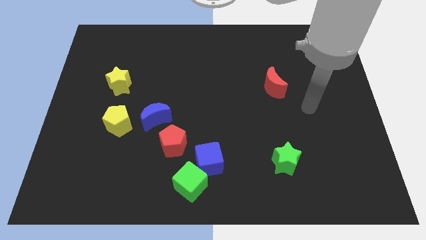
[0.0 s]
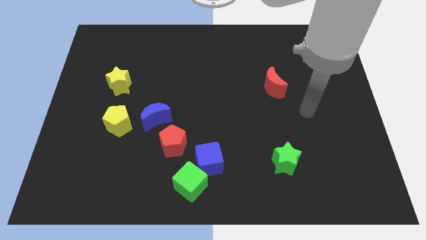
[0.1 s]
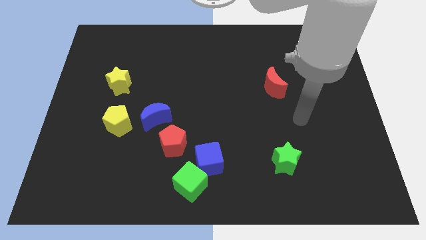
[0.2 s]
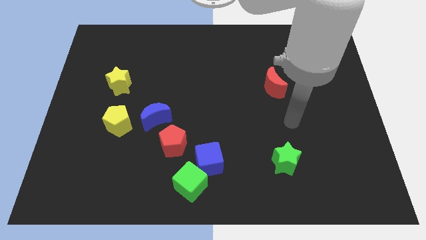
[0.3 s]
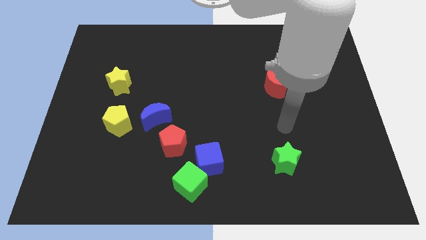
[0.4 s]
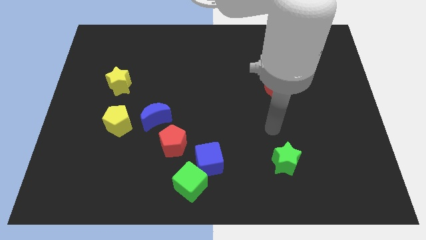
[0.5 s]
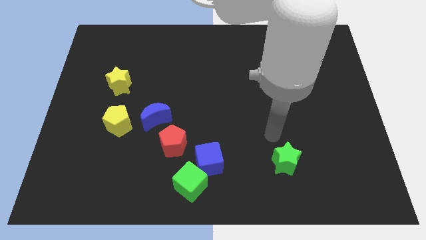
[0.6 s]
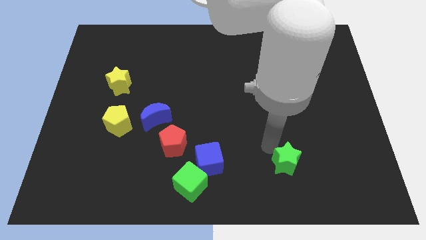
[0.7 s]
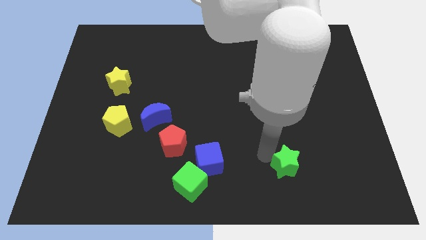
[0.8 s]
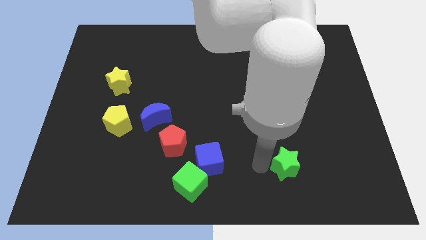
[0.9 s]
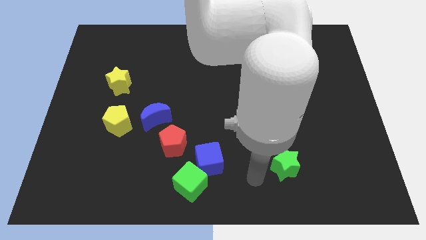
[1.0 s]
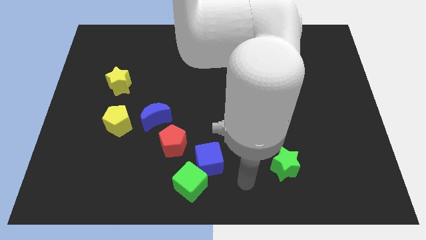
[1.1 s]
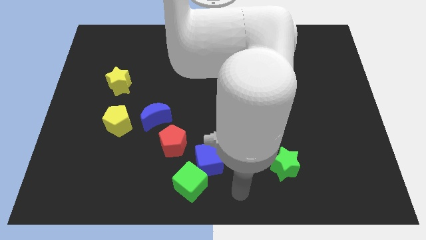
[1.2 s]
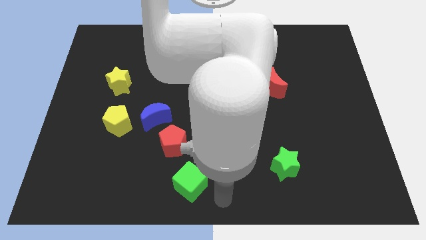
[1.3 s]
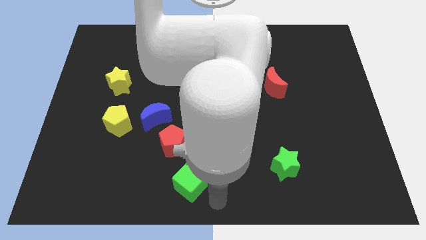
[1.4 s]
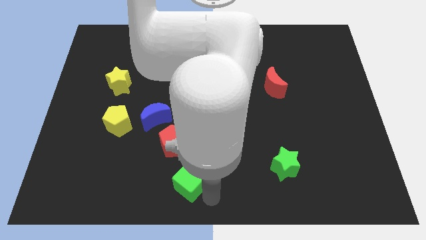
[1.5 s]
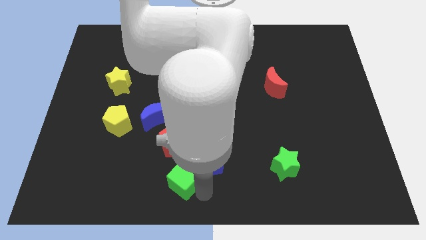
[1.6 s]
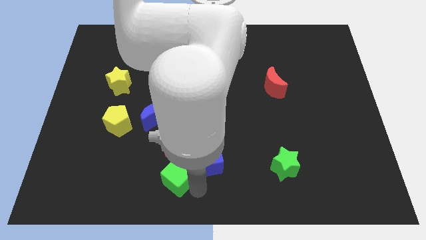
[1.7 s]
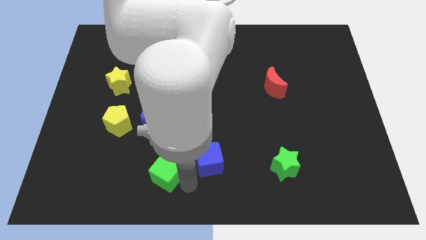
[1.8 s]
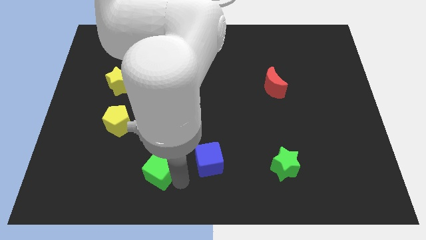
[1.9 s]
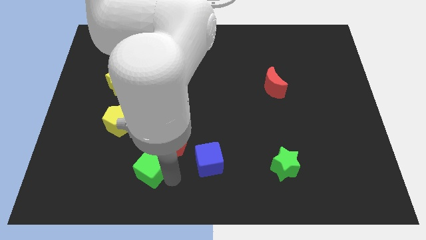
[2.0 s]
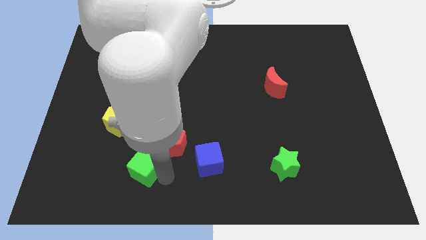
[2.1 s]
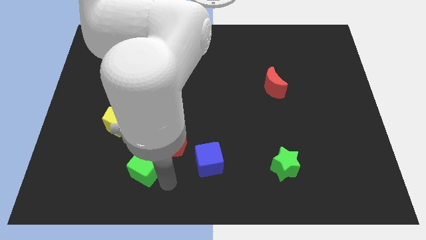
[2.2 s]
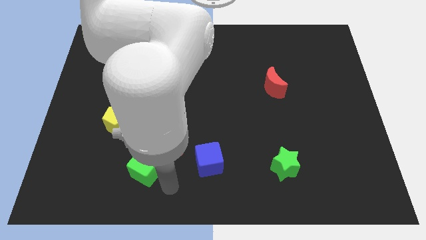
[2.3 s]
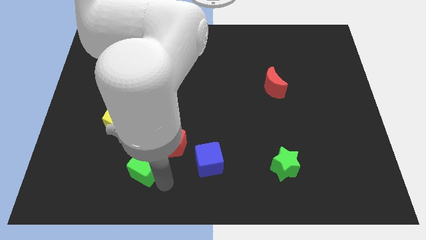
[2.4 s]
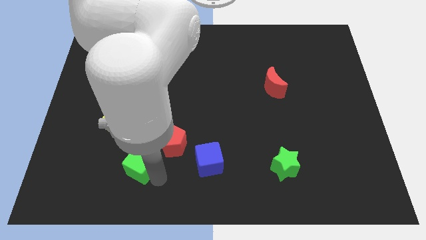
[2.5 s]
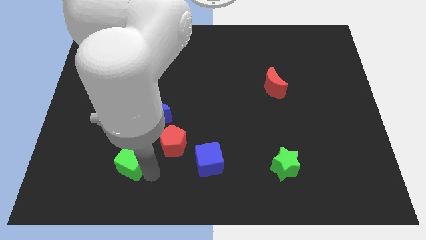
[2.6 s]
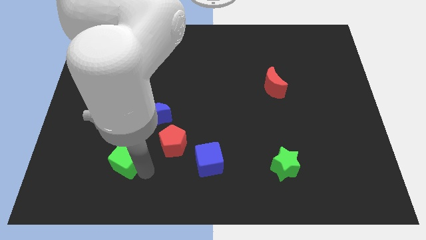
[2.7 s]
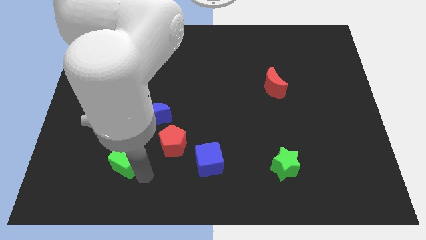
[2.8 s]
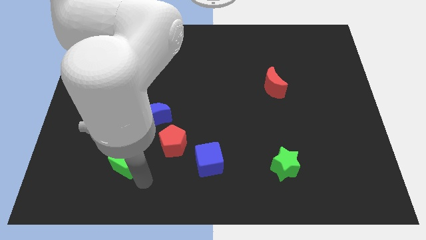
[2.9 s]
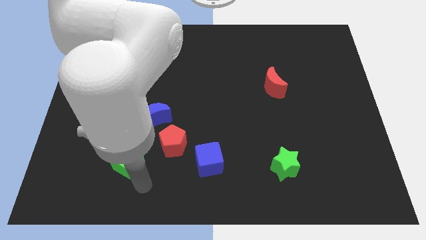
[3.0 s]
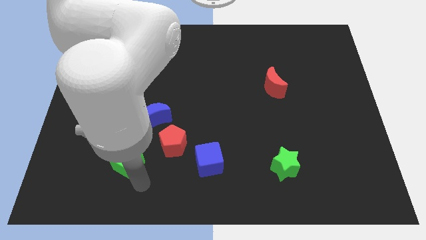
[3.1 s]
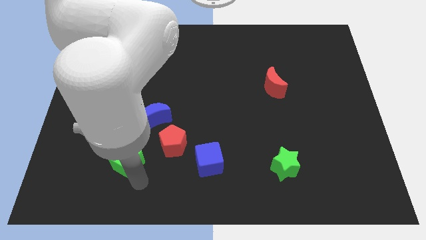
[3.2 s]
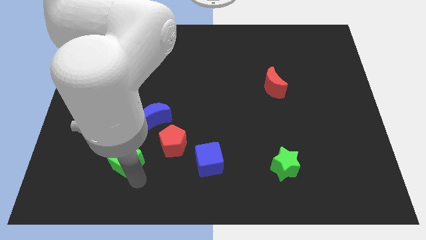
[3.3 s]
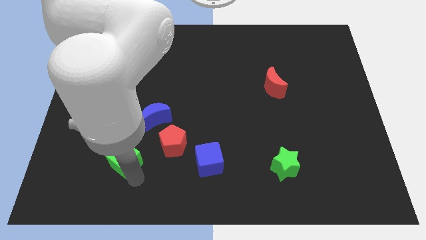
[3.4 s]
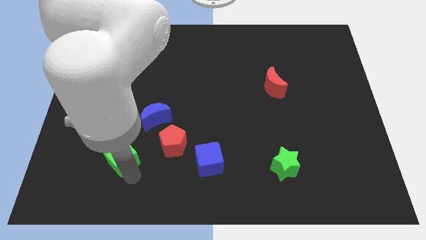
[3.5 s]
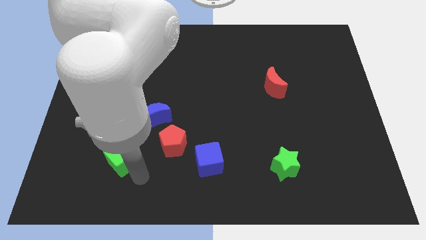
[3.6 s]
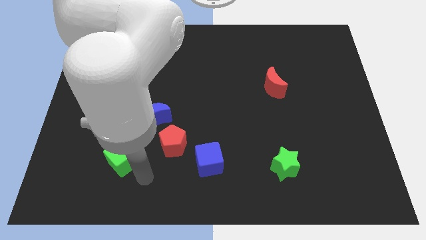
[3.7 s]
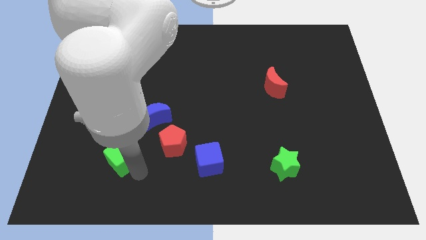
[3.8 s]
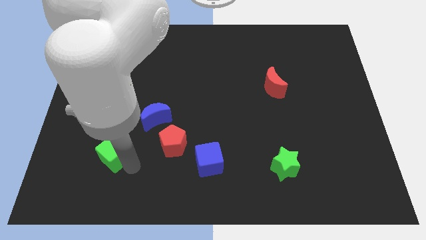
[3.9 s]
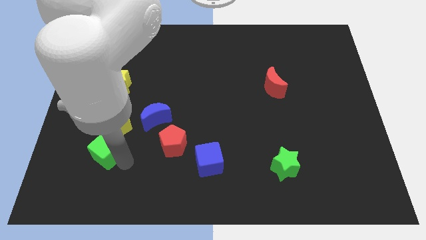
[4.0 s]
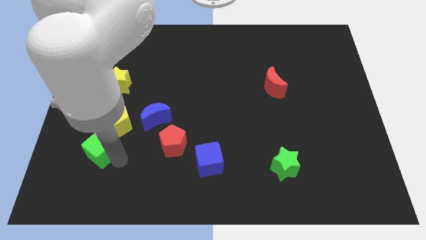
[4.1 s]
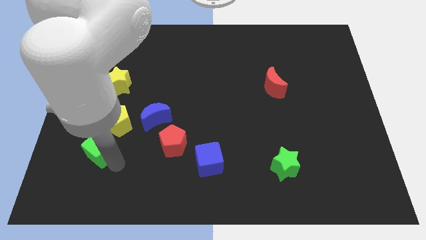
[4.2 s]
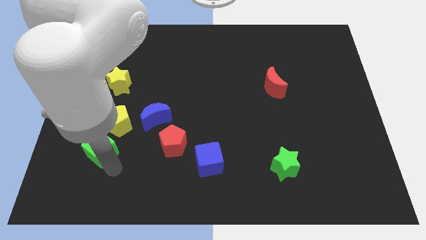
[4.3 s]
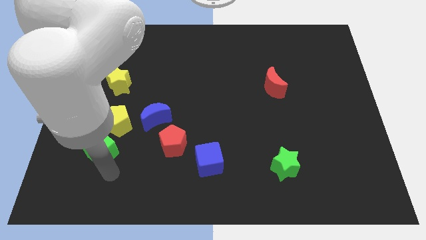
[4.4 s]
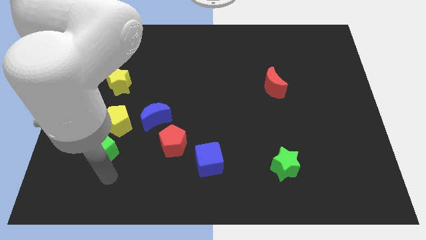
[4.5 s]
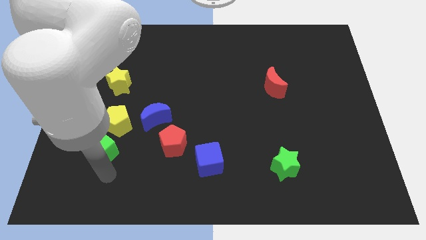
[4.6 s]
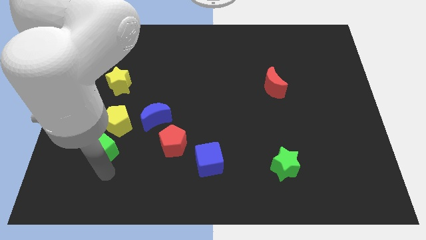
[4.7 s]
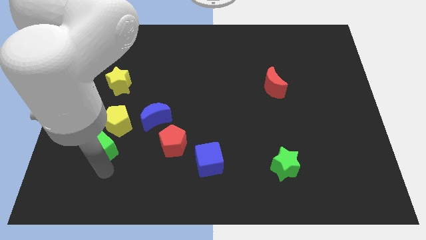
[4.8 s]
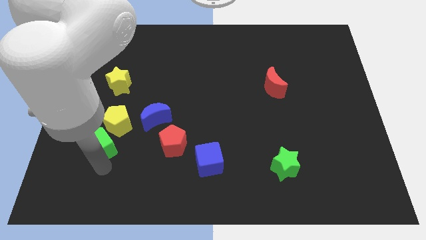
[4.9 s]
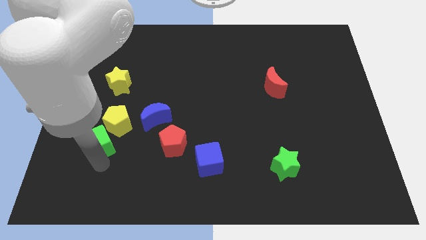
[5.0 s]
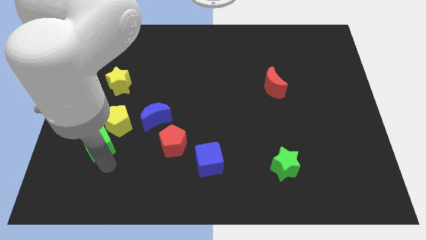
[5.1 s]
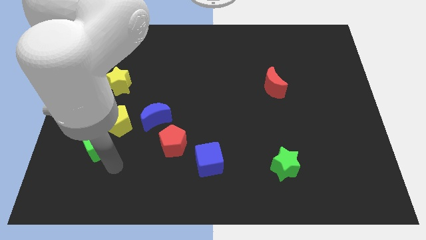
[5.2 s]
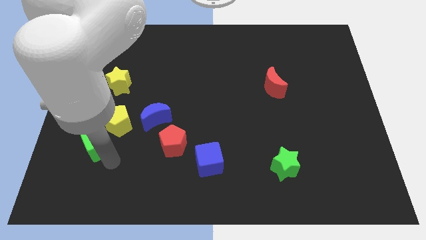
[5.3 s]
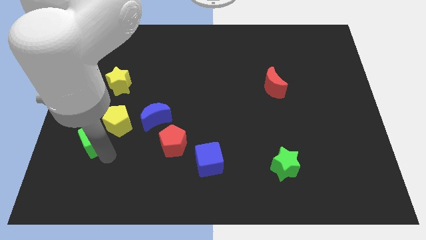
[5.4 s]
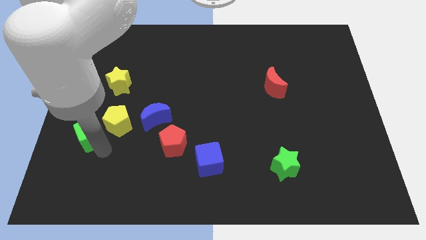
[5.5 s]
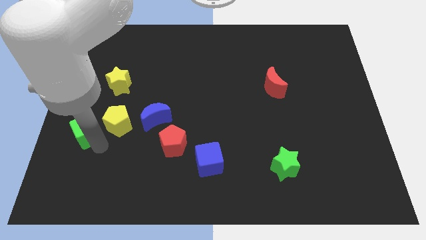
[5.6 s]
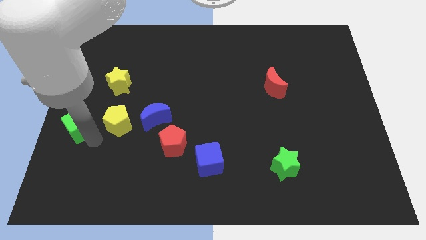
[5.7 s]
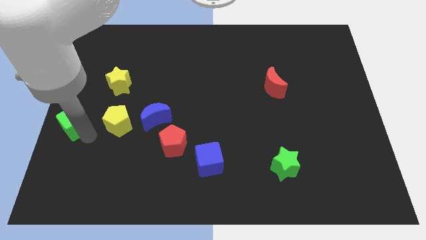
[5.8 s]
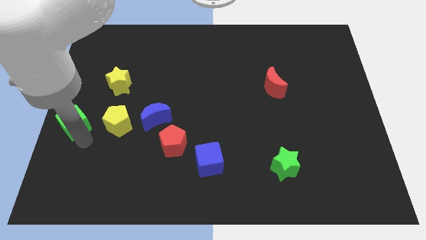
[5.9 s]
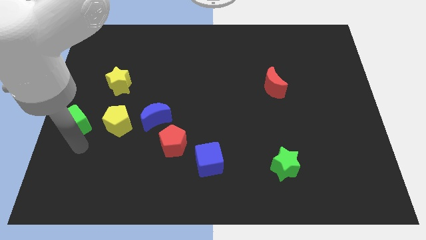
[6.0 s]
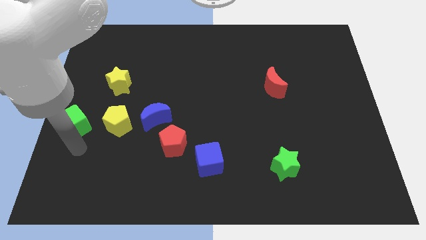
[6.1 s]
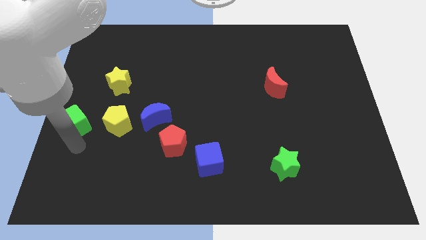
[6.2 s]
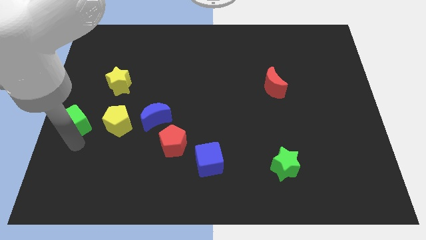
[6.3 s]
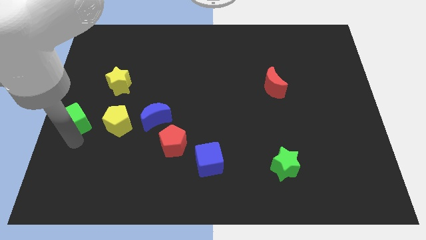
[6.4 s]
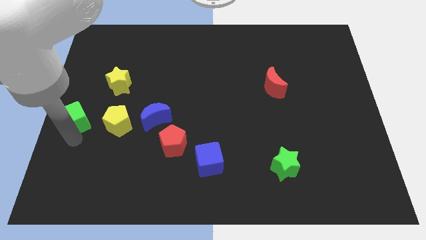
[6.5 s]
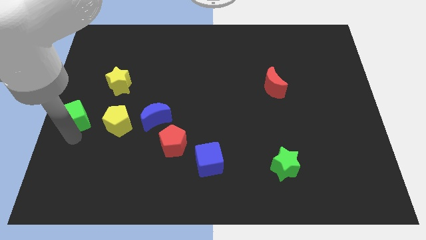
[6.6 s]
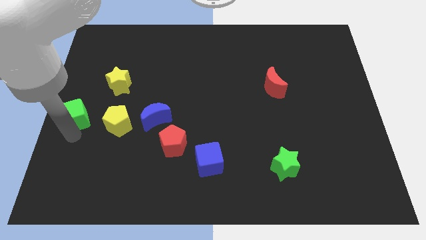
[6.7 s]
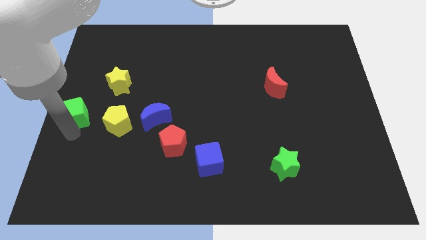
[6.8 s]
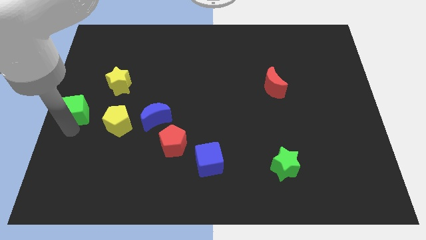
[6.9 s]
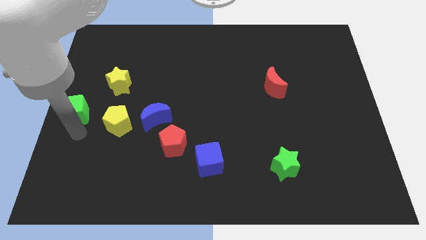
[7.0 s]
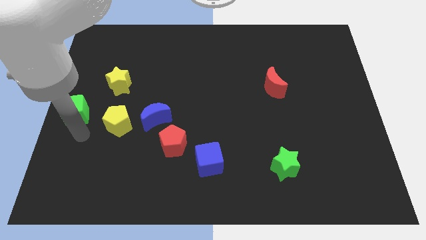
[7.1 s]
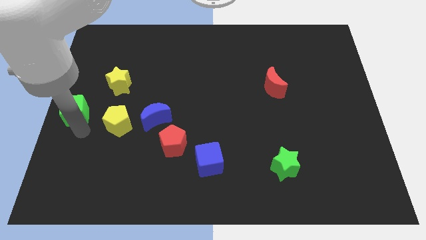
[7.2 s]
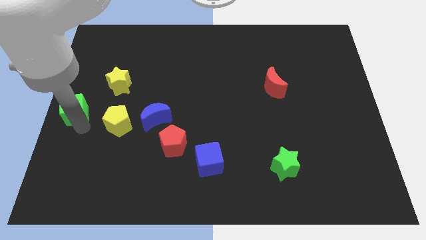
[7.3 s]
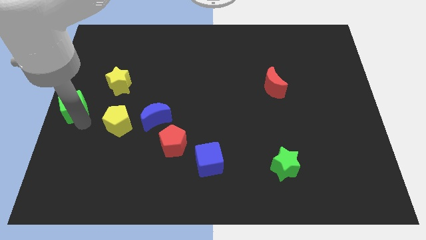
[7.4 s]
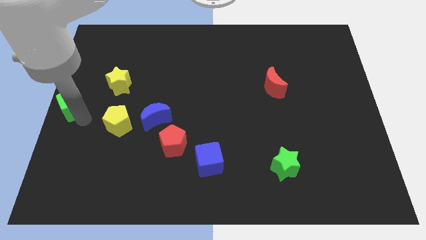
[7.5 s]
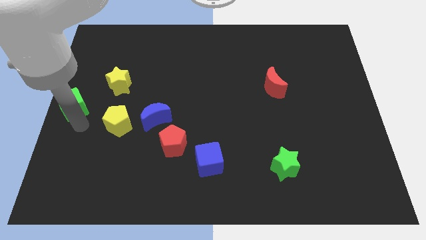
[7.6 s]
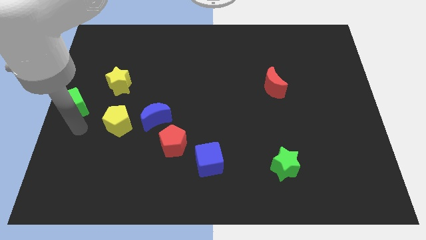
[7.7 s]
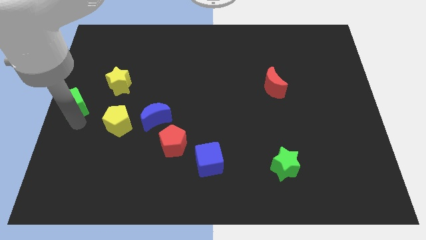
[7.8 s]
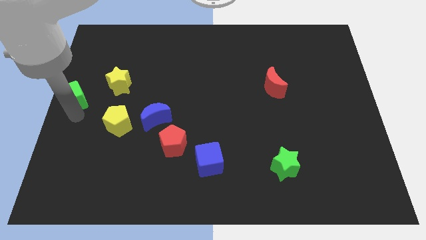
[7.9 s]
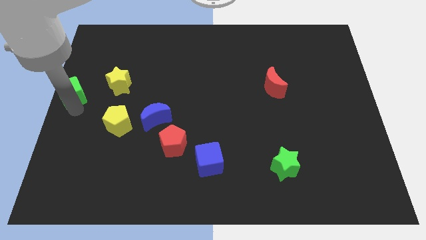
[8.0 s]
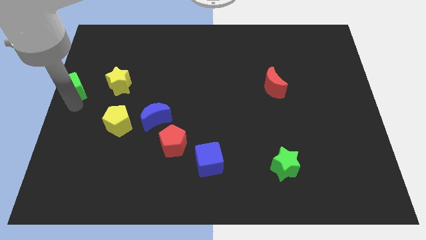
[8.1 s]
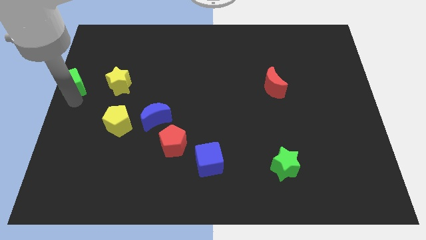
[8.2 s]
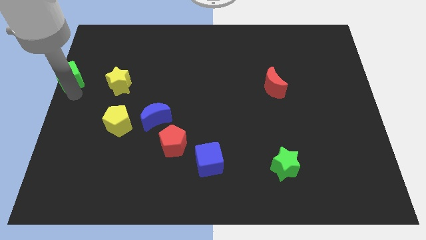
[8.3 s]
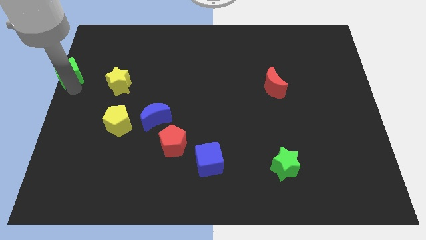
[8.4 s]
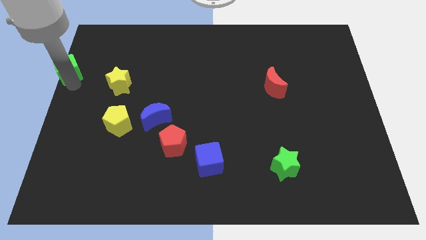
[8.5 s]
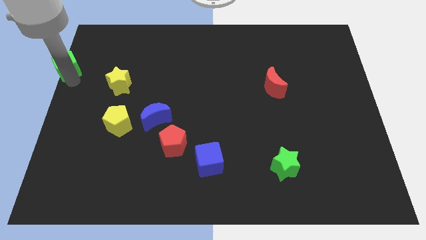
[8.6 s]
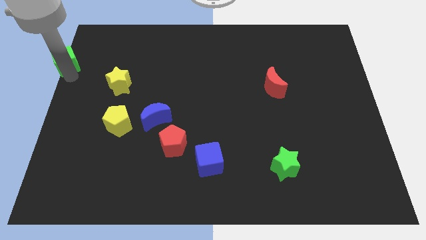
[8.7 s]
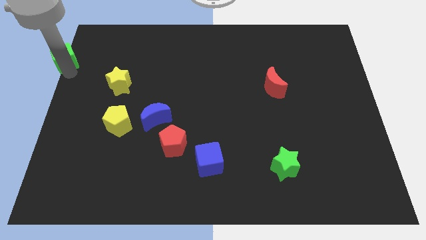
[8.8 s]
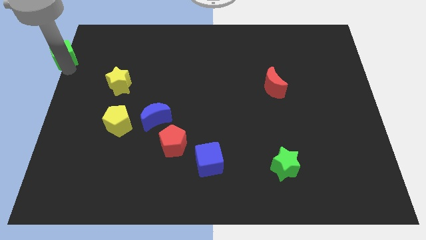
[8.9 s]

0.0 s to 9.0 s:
move the green cube to the top left of the board
